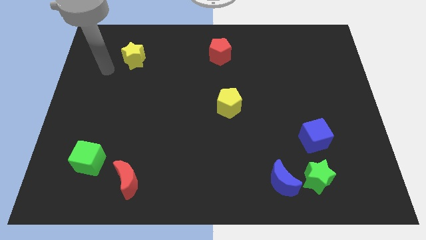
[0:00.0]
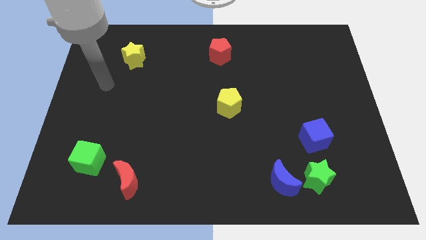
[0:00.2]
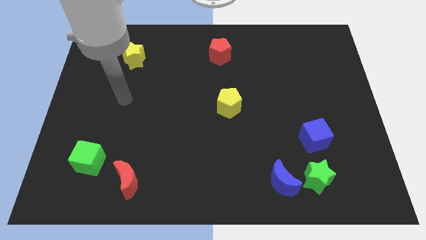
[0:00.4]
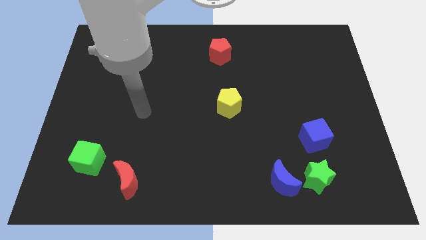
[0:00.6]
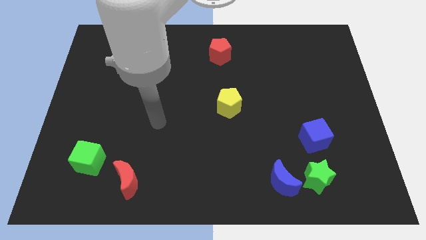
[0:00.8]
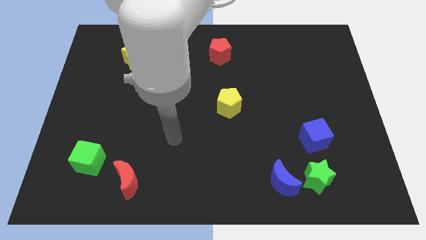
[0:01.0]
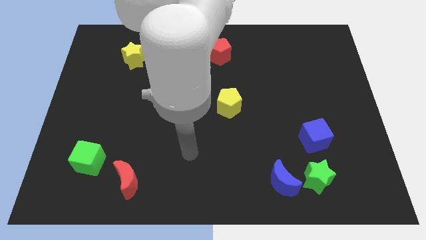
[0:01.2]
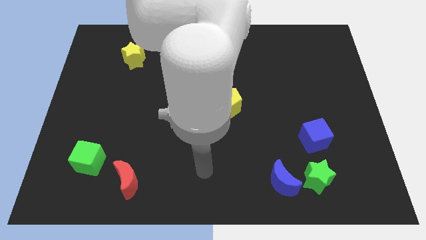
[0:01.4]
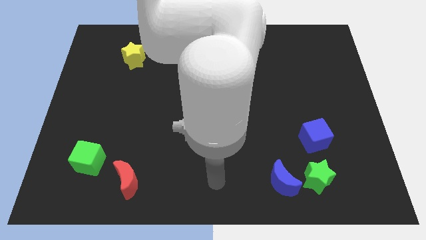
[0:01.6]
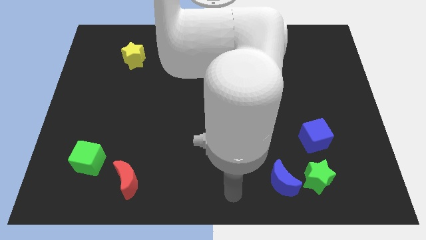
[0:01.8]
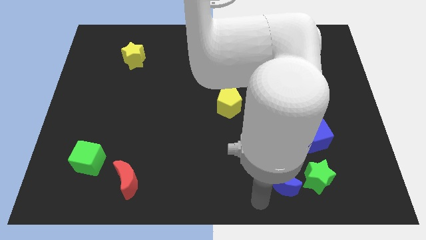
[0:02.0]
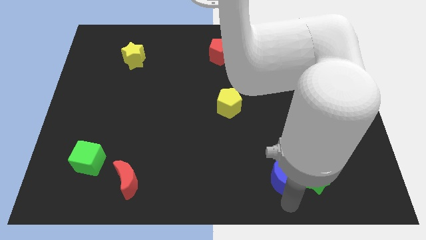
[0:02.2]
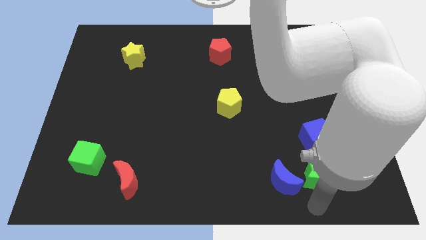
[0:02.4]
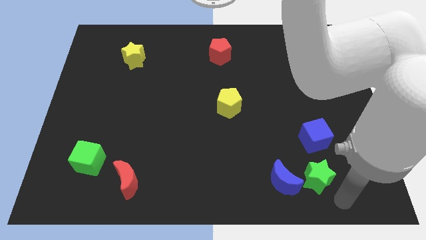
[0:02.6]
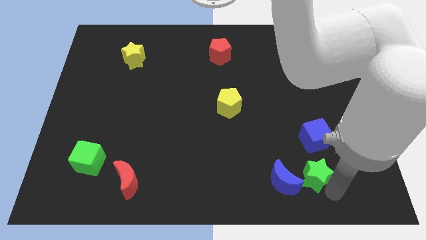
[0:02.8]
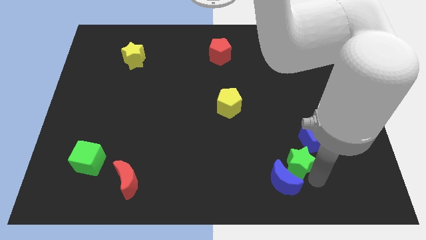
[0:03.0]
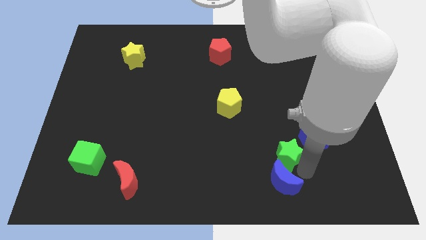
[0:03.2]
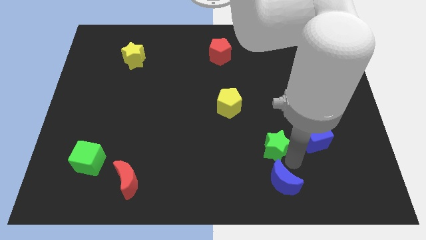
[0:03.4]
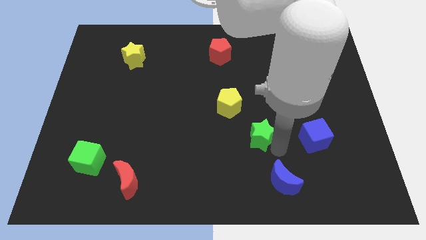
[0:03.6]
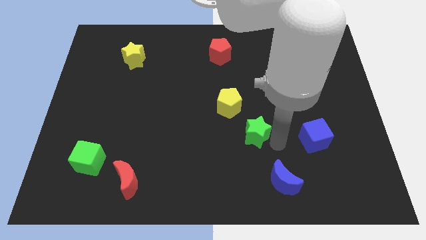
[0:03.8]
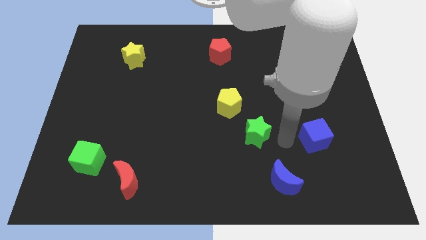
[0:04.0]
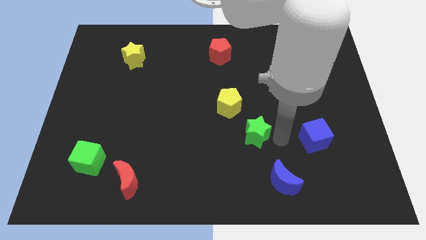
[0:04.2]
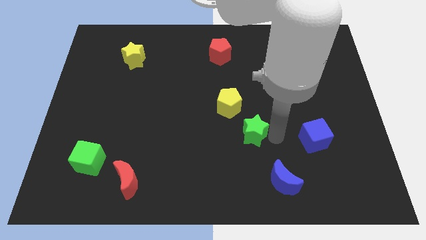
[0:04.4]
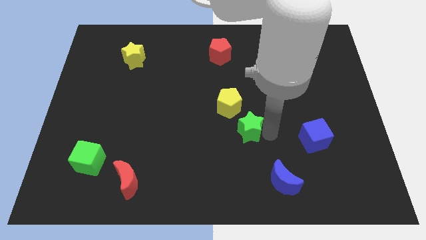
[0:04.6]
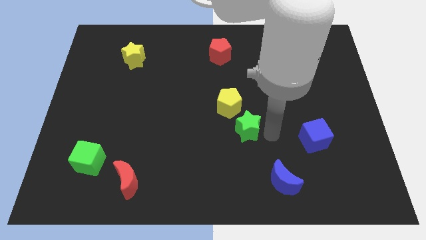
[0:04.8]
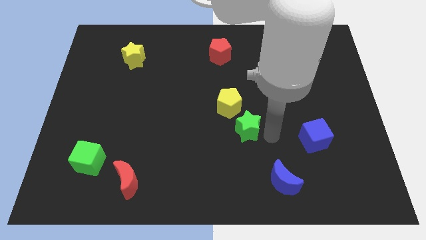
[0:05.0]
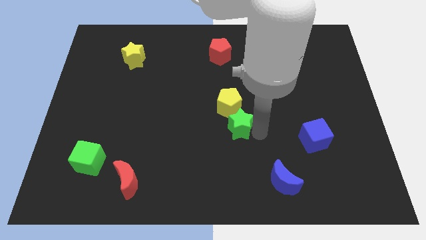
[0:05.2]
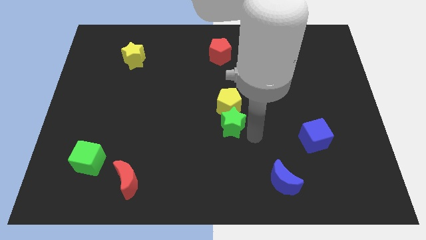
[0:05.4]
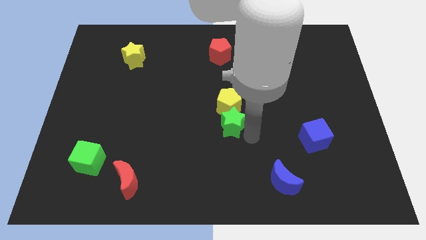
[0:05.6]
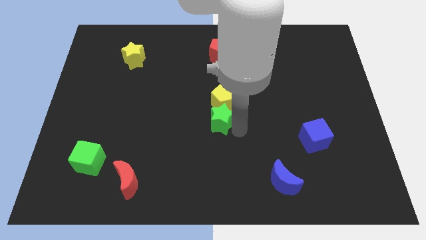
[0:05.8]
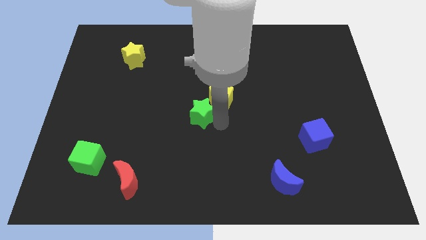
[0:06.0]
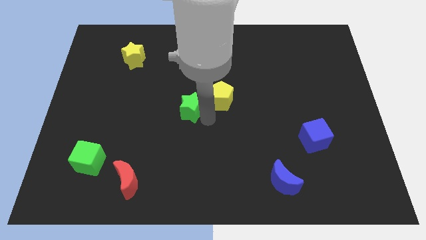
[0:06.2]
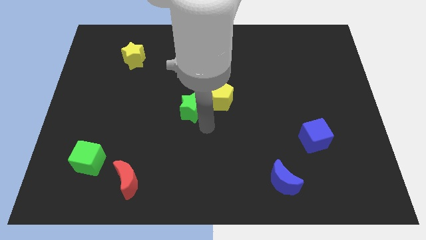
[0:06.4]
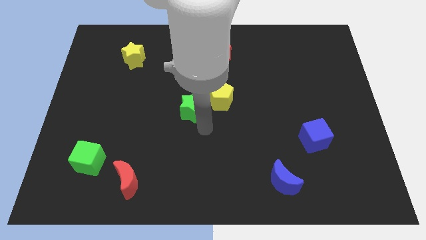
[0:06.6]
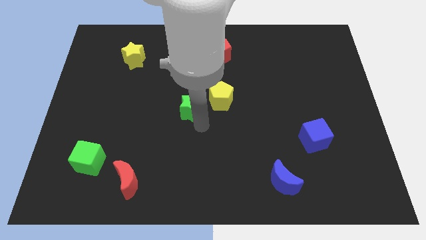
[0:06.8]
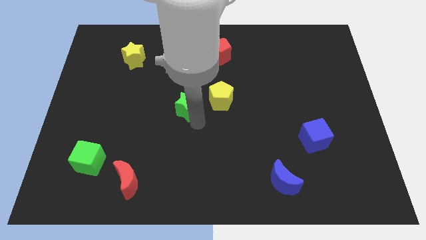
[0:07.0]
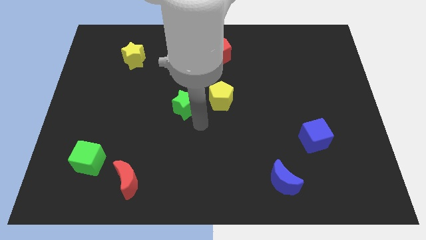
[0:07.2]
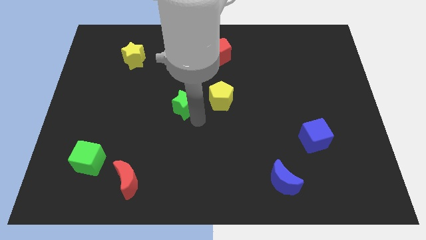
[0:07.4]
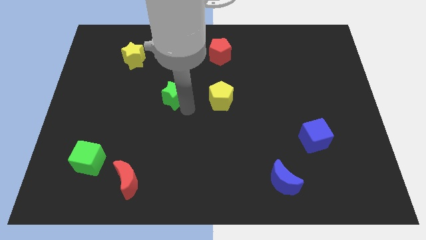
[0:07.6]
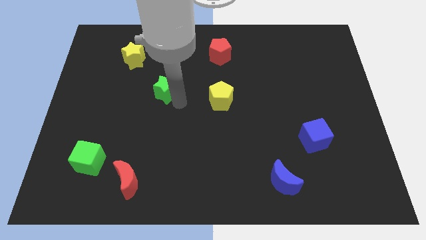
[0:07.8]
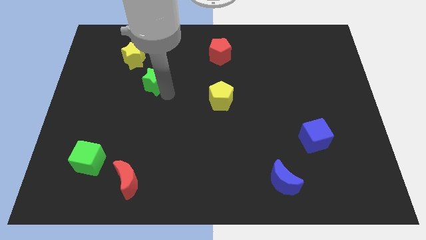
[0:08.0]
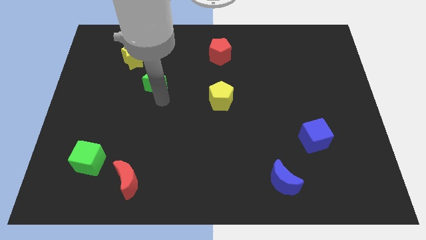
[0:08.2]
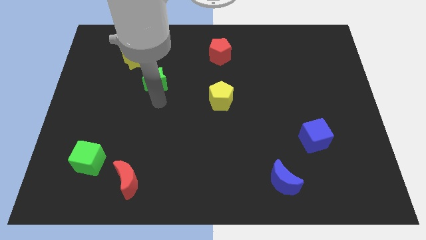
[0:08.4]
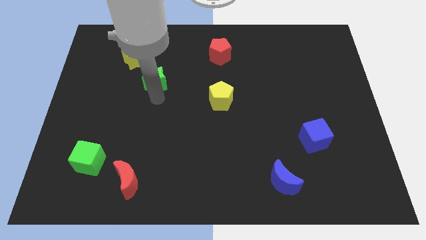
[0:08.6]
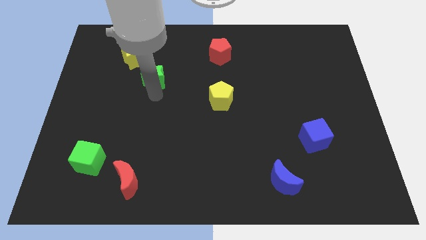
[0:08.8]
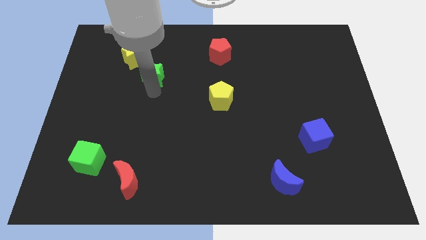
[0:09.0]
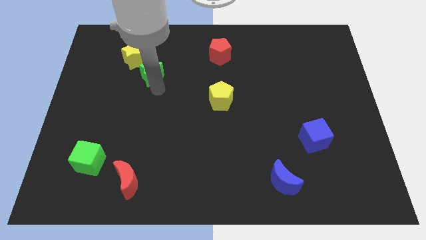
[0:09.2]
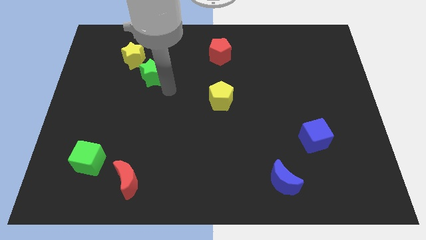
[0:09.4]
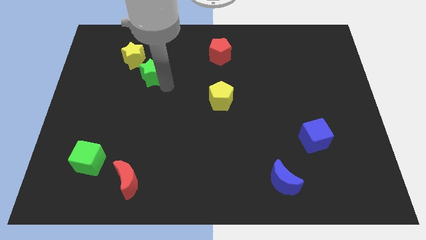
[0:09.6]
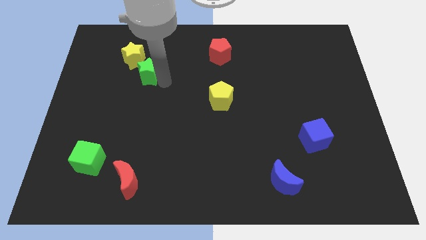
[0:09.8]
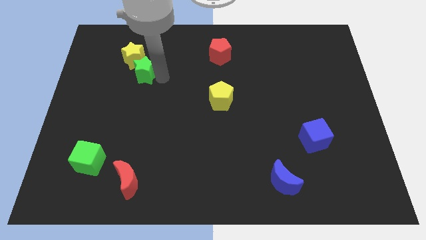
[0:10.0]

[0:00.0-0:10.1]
move the green star towards the yellow star

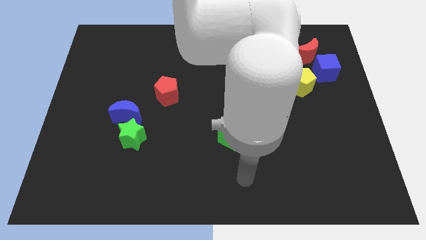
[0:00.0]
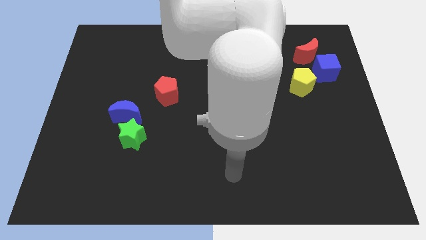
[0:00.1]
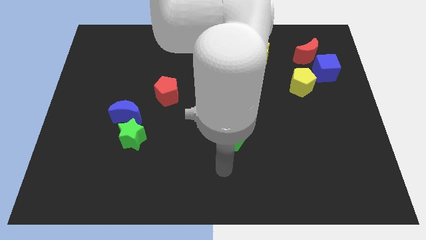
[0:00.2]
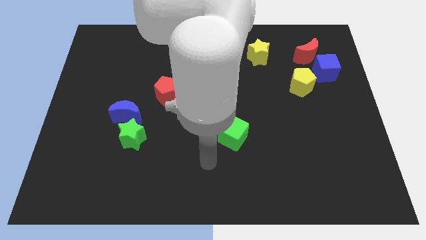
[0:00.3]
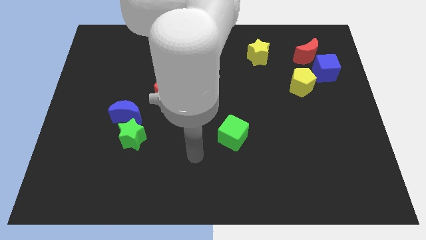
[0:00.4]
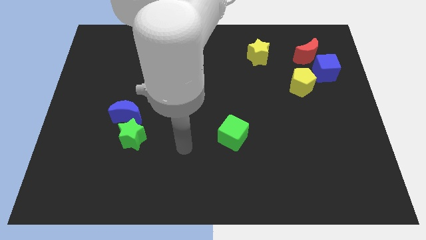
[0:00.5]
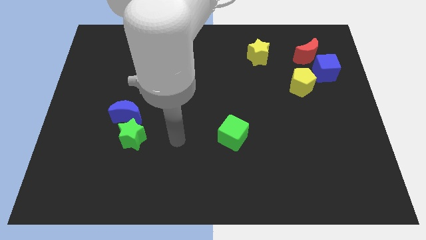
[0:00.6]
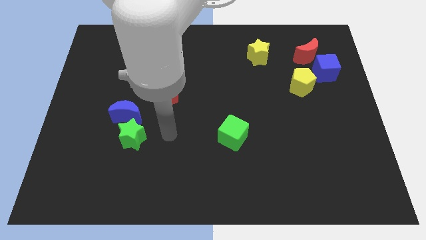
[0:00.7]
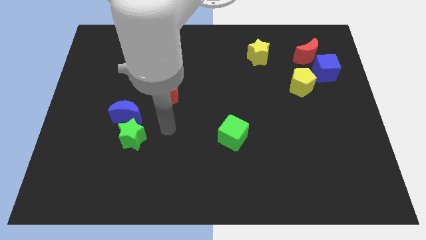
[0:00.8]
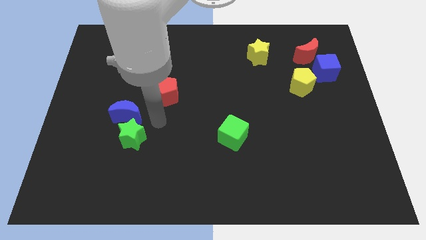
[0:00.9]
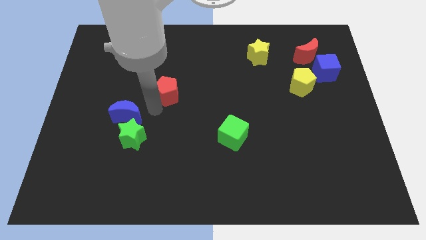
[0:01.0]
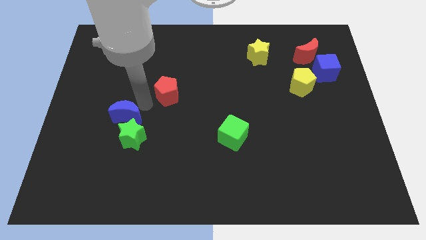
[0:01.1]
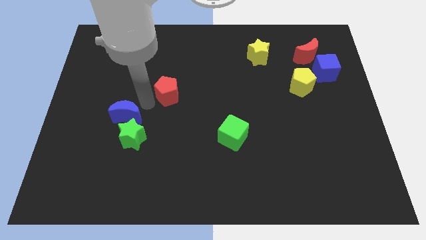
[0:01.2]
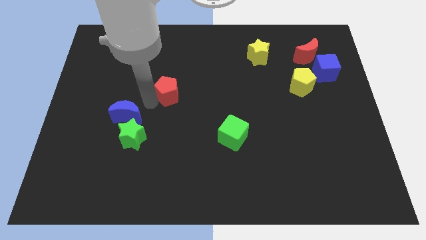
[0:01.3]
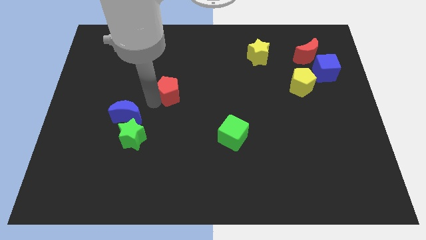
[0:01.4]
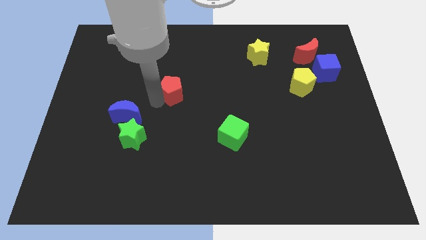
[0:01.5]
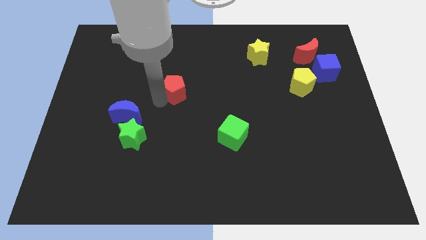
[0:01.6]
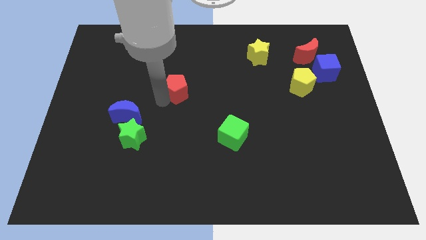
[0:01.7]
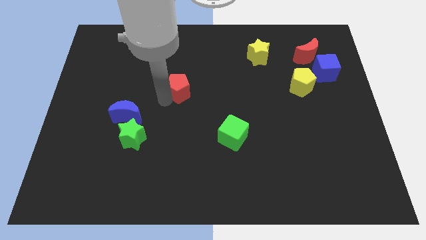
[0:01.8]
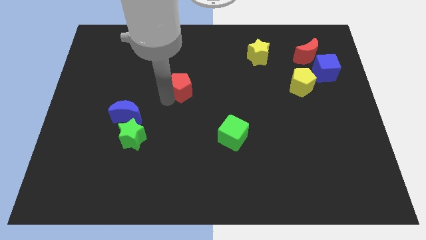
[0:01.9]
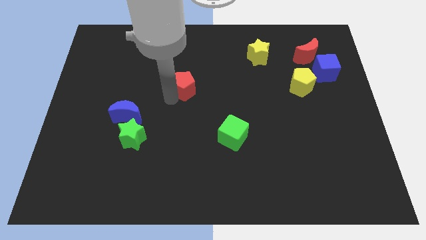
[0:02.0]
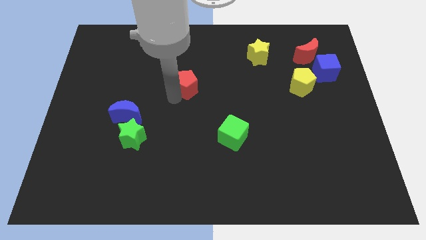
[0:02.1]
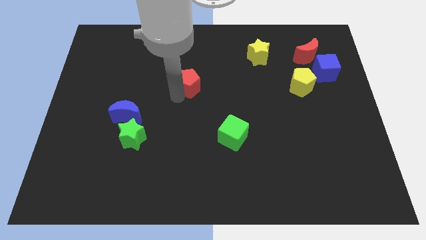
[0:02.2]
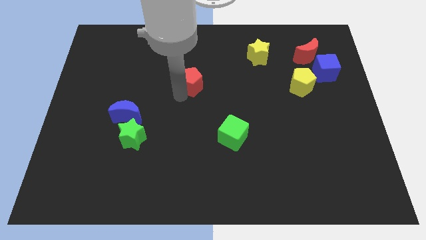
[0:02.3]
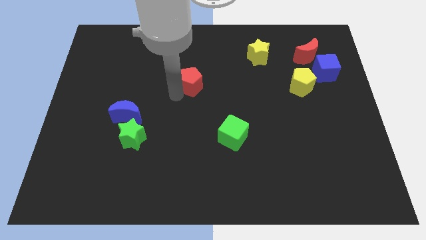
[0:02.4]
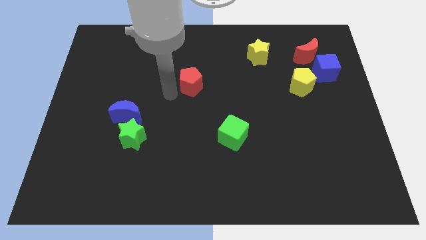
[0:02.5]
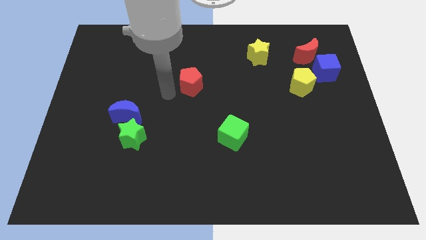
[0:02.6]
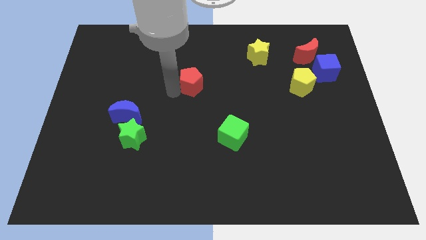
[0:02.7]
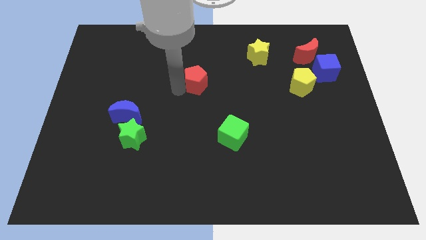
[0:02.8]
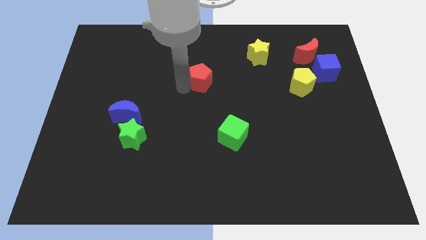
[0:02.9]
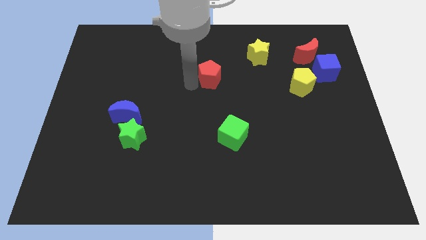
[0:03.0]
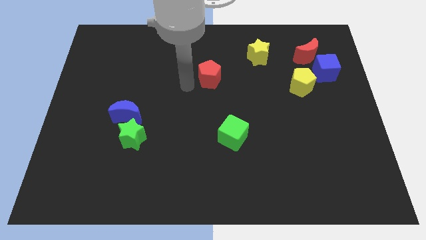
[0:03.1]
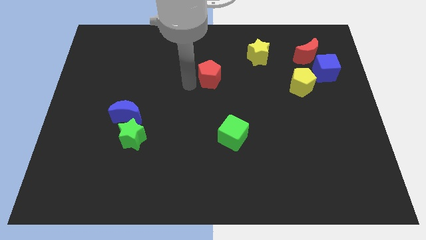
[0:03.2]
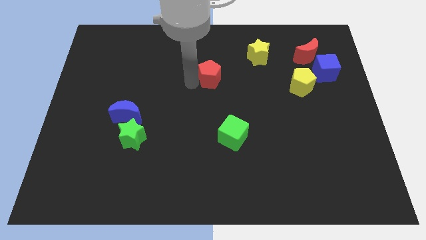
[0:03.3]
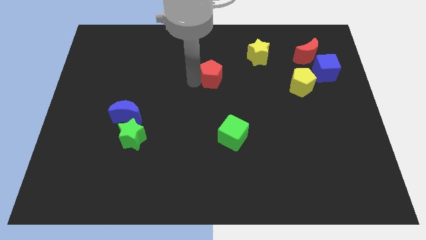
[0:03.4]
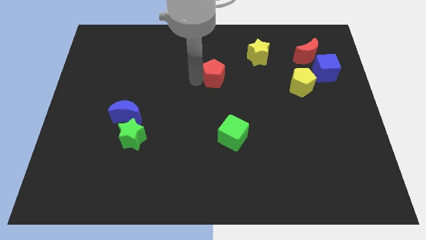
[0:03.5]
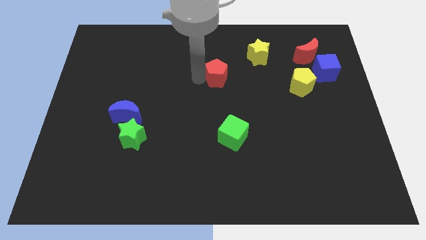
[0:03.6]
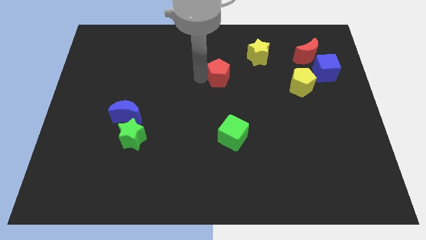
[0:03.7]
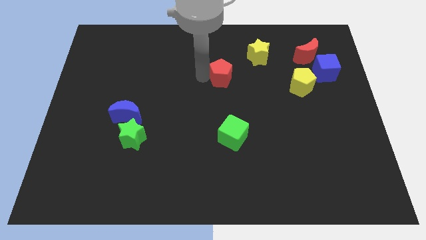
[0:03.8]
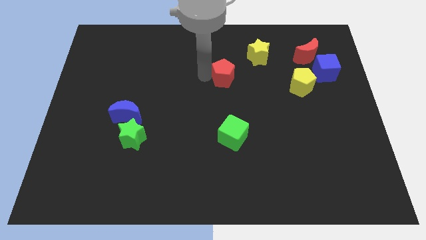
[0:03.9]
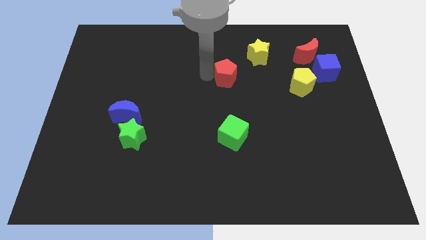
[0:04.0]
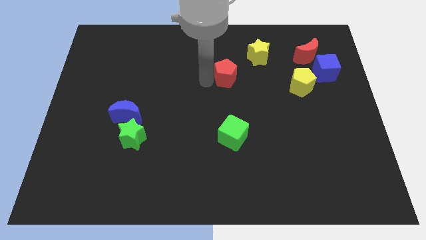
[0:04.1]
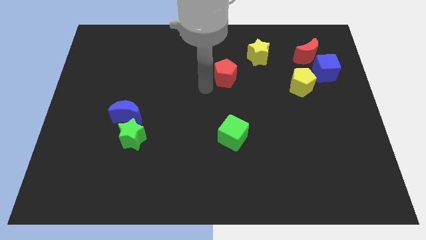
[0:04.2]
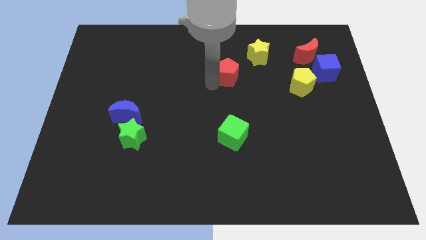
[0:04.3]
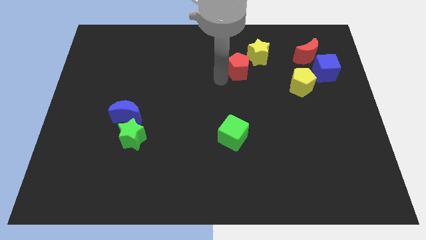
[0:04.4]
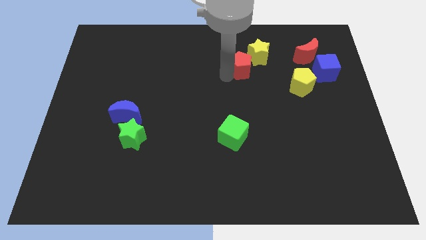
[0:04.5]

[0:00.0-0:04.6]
slide the red pentagon next to the yellow star
